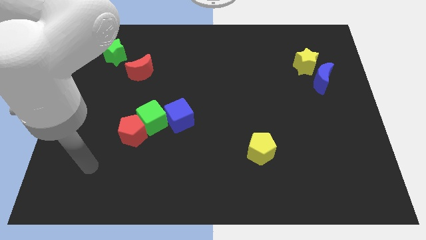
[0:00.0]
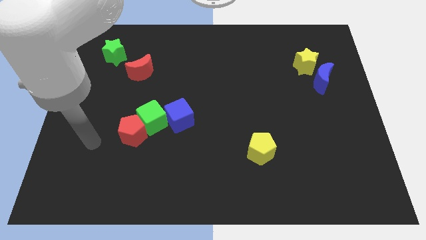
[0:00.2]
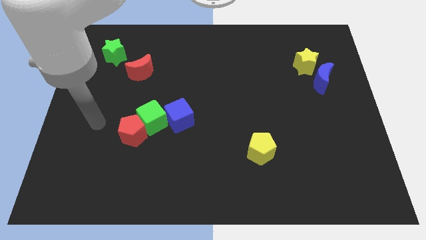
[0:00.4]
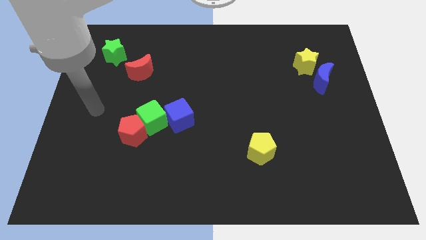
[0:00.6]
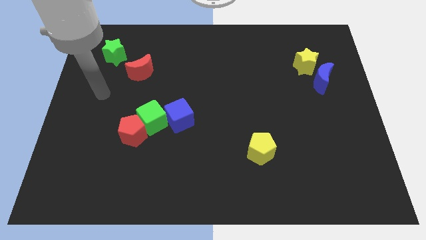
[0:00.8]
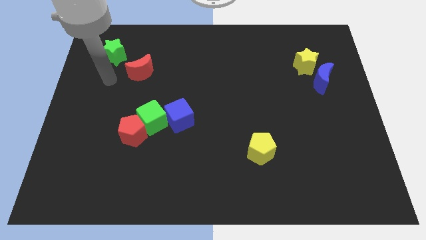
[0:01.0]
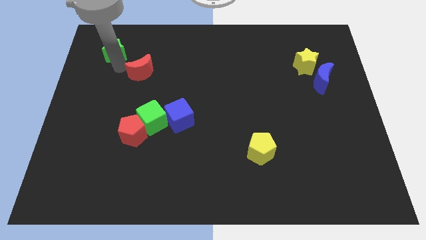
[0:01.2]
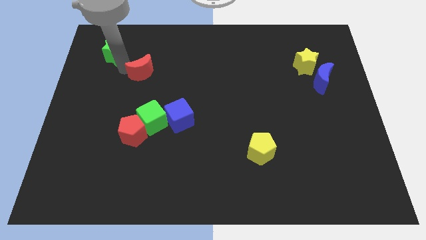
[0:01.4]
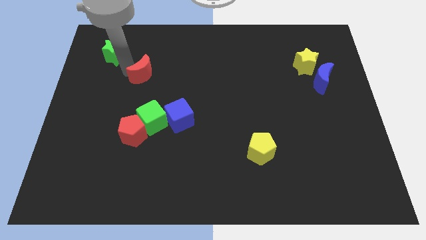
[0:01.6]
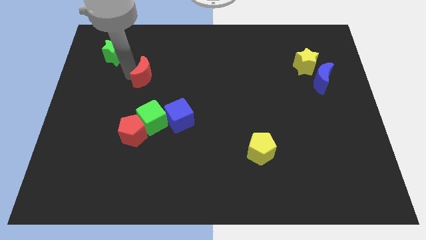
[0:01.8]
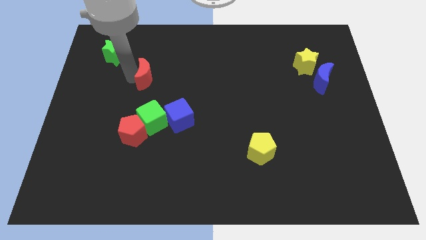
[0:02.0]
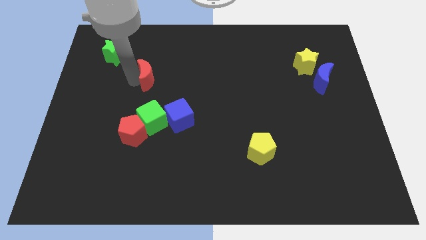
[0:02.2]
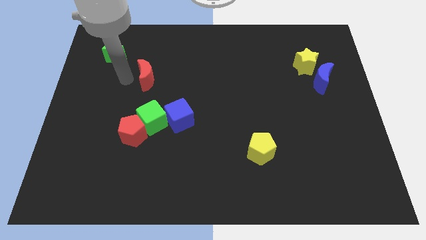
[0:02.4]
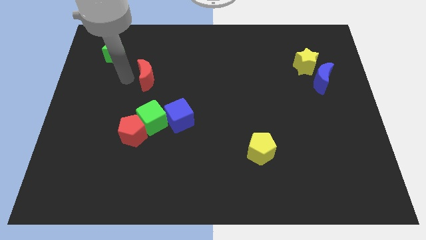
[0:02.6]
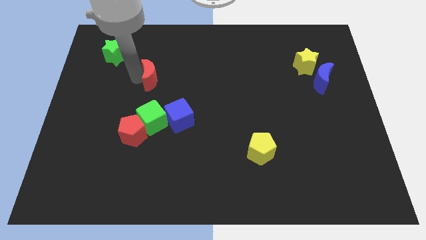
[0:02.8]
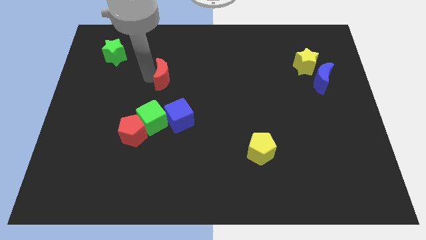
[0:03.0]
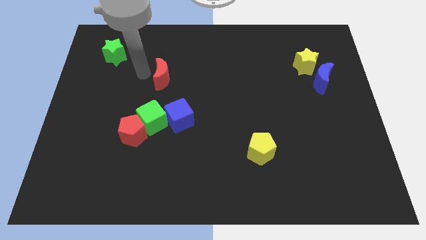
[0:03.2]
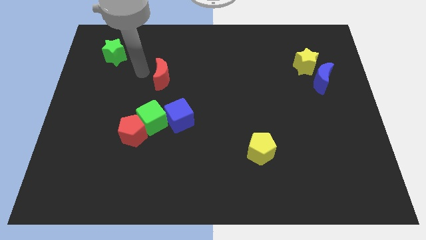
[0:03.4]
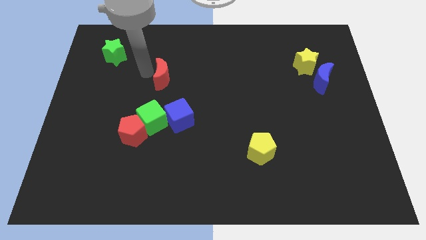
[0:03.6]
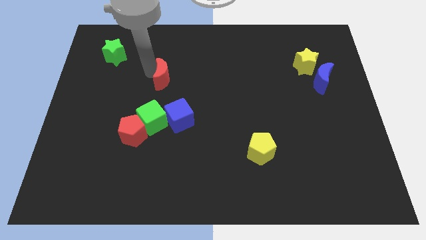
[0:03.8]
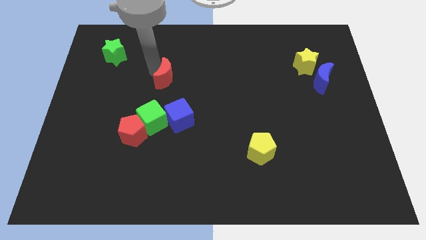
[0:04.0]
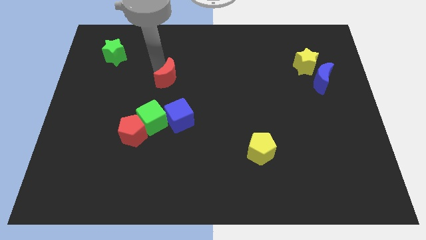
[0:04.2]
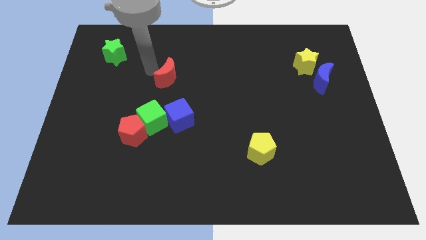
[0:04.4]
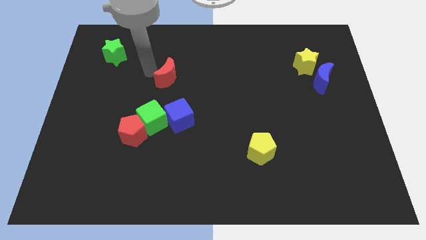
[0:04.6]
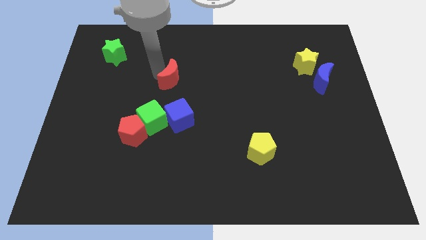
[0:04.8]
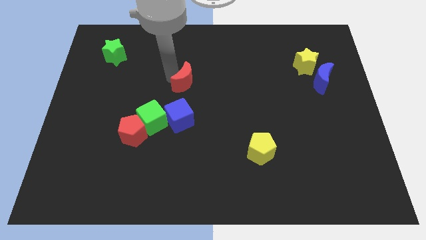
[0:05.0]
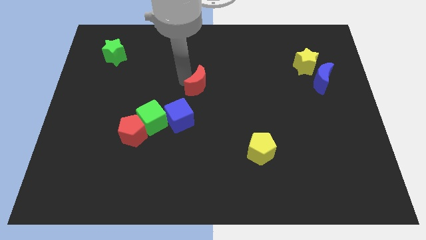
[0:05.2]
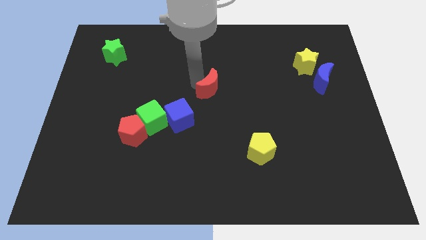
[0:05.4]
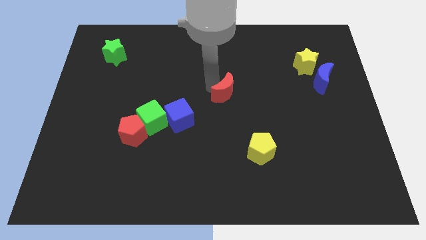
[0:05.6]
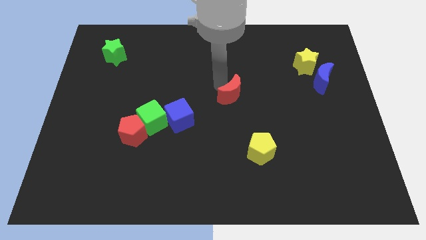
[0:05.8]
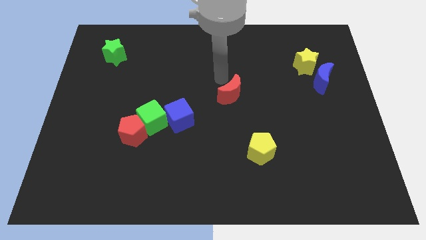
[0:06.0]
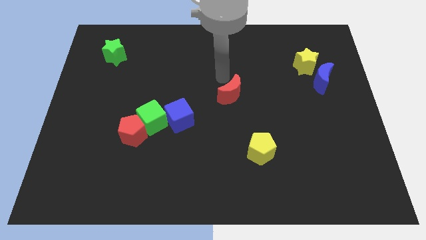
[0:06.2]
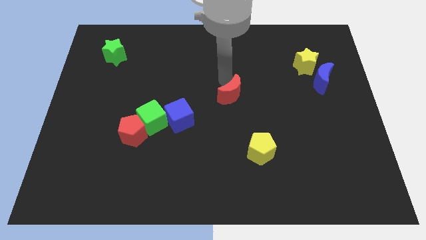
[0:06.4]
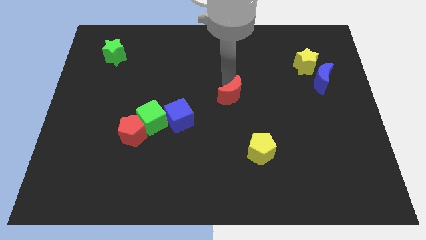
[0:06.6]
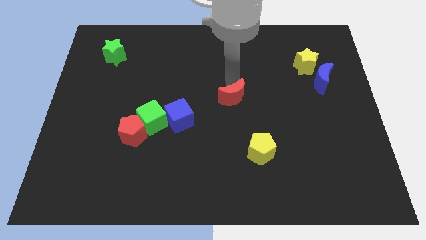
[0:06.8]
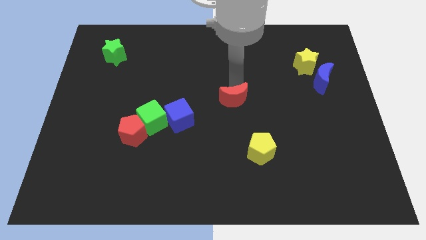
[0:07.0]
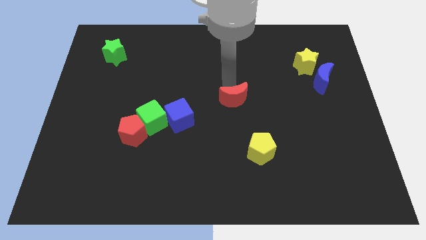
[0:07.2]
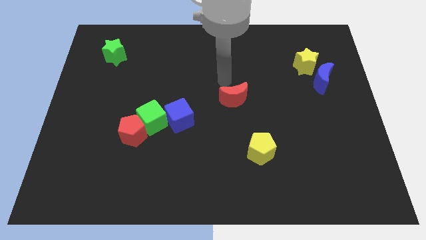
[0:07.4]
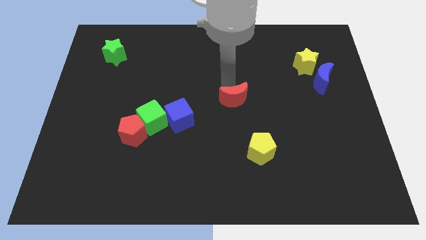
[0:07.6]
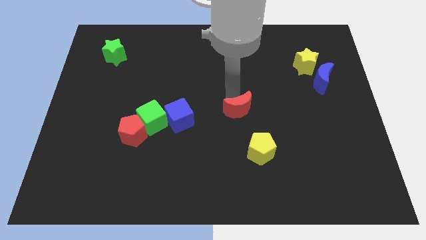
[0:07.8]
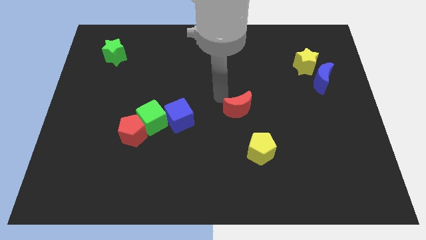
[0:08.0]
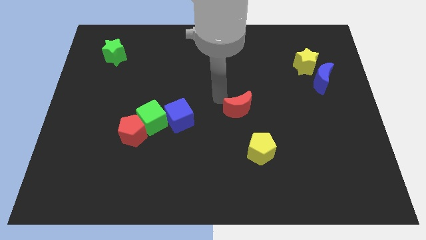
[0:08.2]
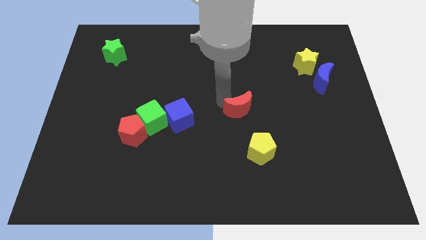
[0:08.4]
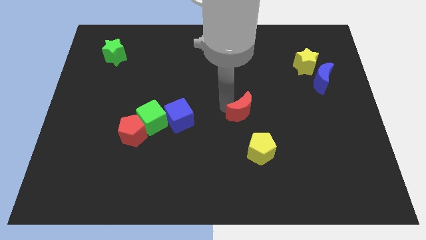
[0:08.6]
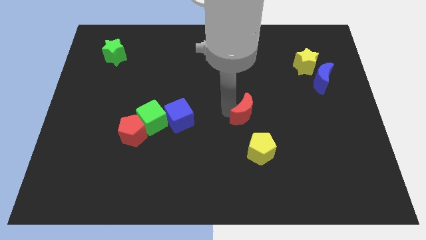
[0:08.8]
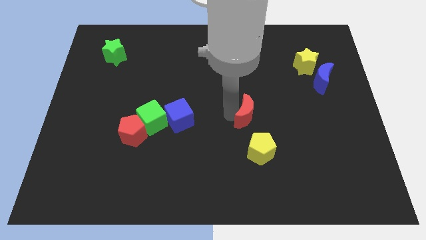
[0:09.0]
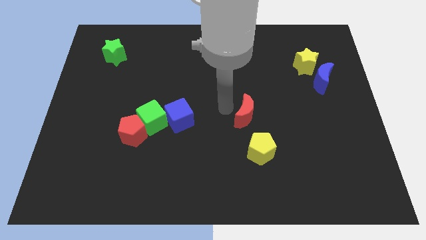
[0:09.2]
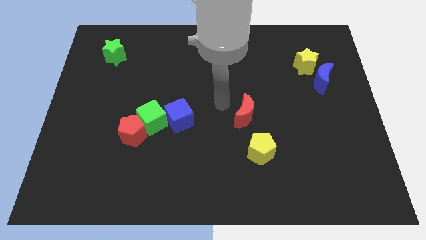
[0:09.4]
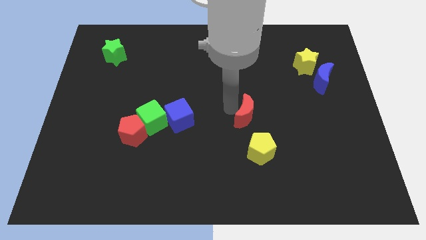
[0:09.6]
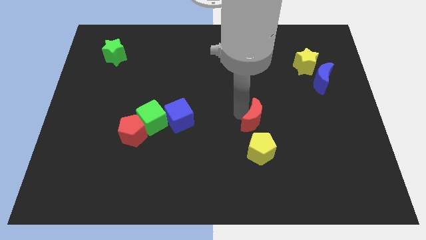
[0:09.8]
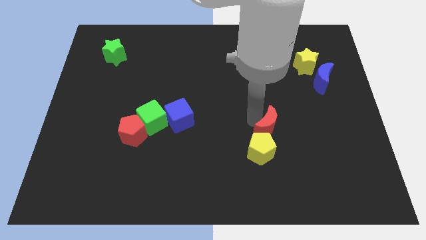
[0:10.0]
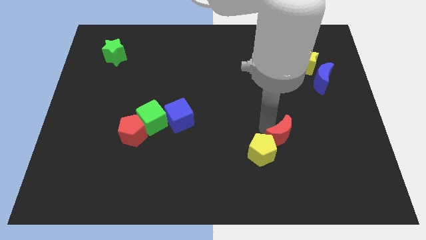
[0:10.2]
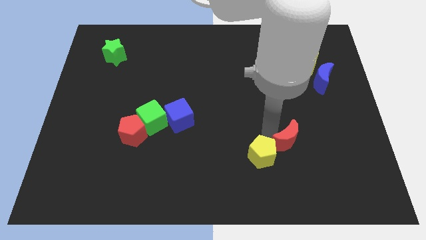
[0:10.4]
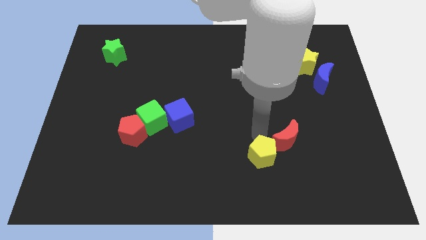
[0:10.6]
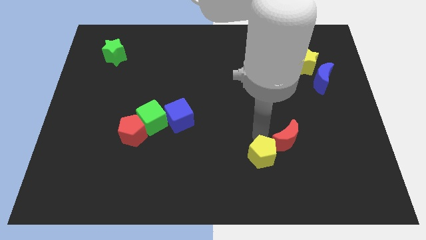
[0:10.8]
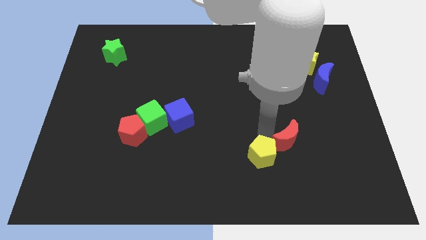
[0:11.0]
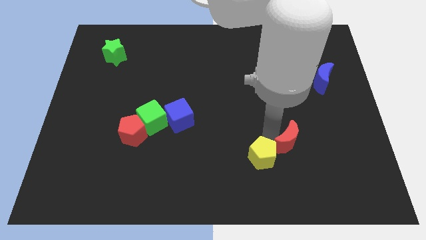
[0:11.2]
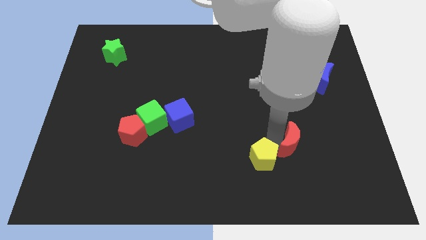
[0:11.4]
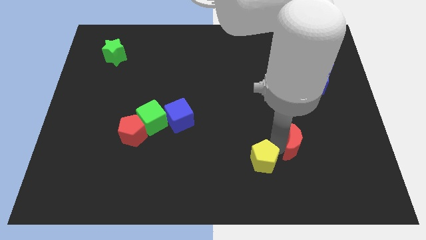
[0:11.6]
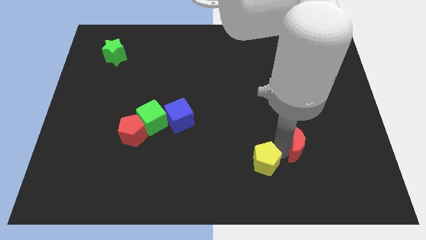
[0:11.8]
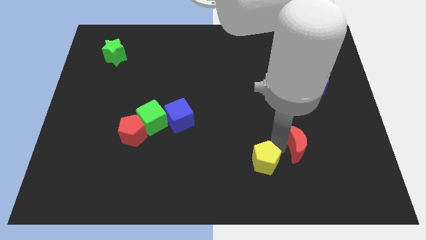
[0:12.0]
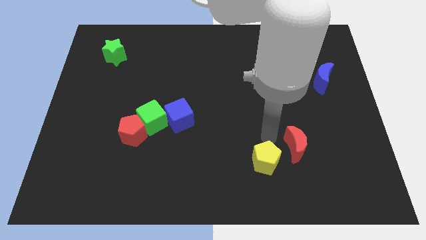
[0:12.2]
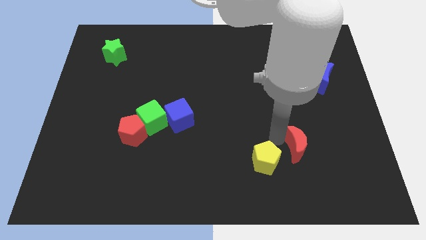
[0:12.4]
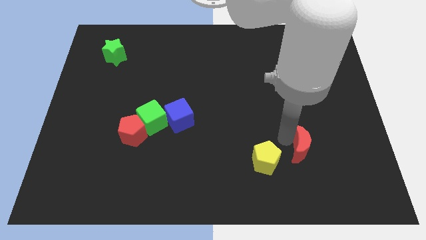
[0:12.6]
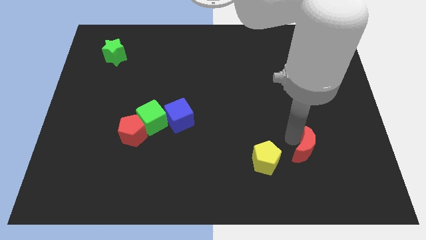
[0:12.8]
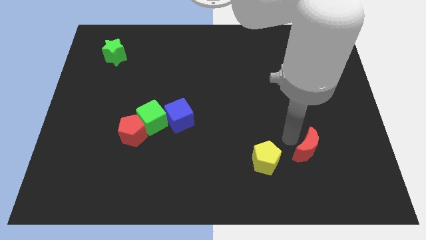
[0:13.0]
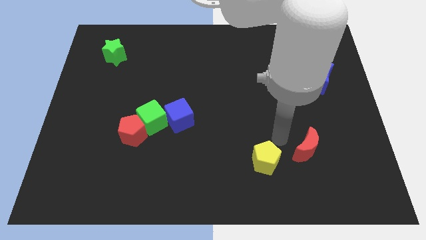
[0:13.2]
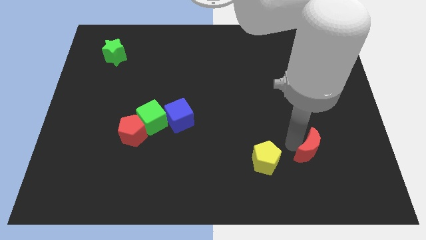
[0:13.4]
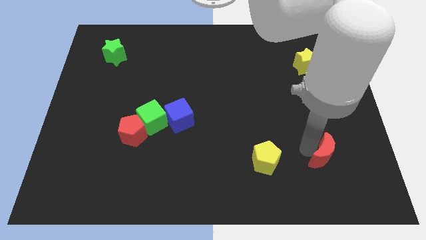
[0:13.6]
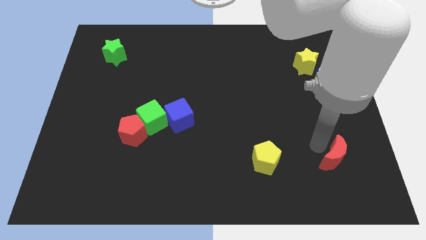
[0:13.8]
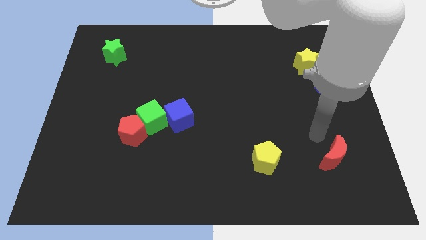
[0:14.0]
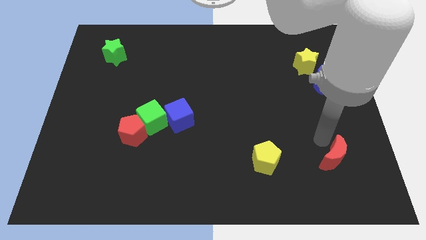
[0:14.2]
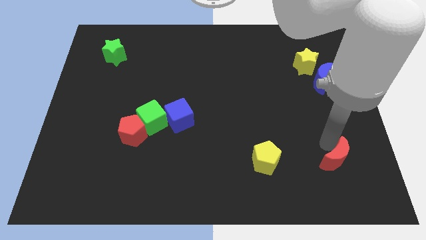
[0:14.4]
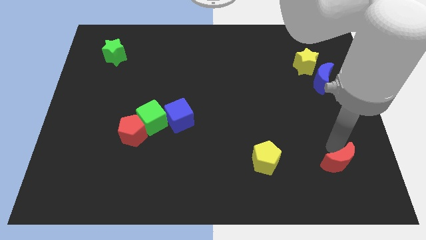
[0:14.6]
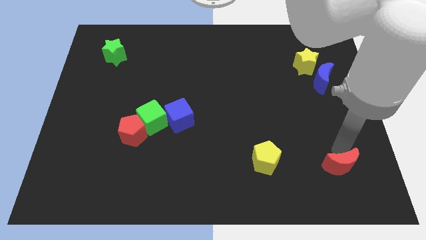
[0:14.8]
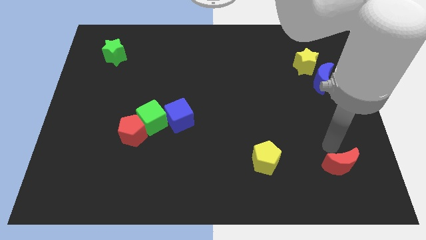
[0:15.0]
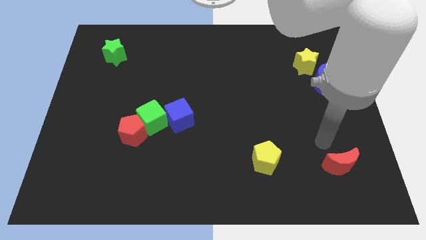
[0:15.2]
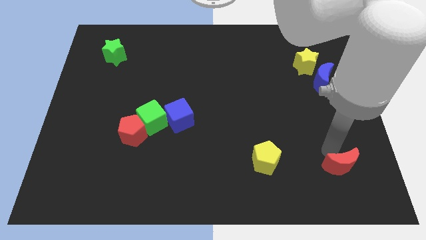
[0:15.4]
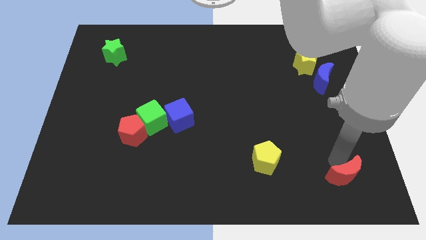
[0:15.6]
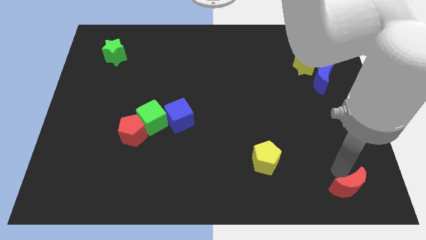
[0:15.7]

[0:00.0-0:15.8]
move the red moon to the bottom right of the board
